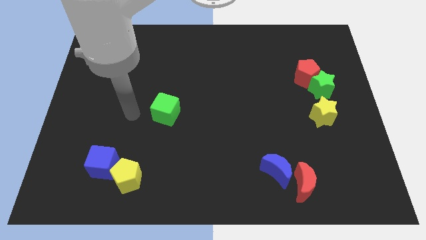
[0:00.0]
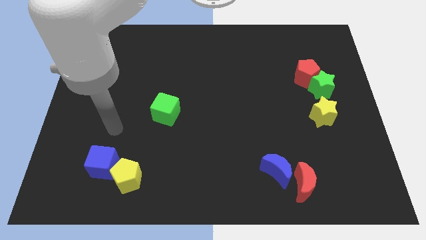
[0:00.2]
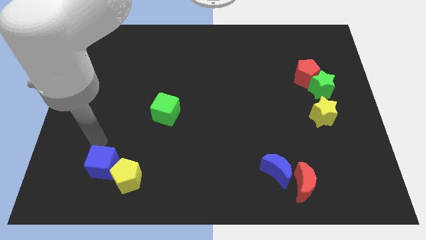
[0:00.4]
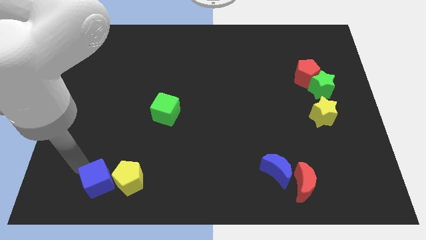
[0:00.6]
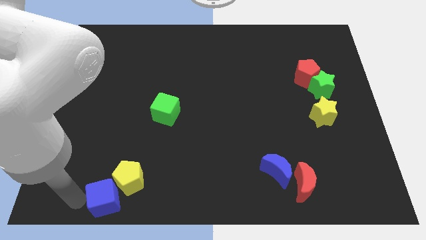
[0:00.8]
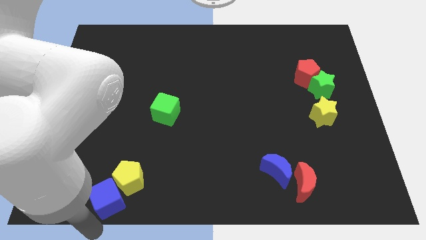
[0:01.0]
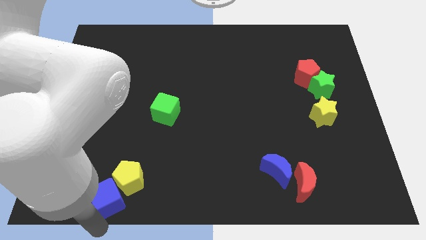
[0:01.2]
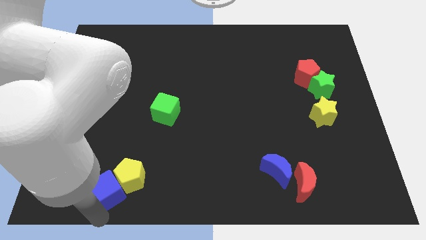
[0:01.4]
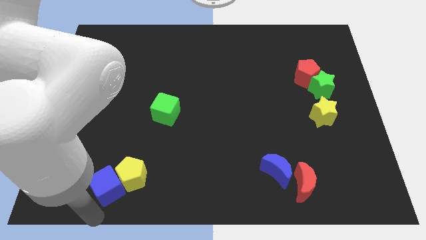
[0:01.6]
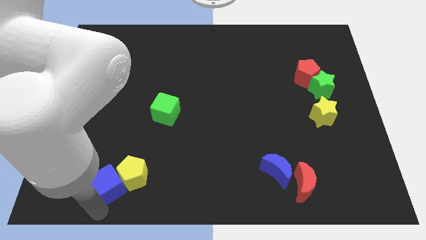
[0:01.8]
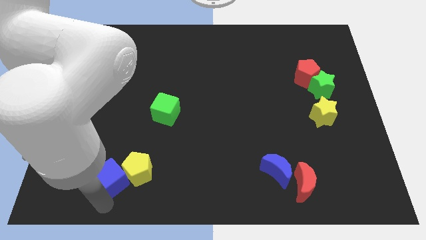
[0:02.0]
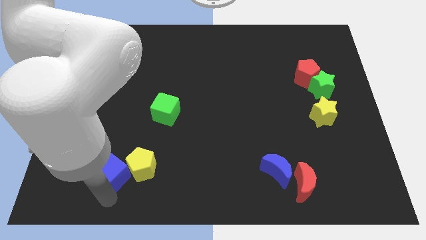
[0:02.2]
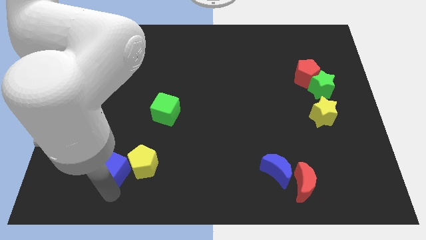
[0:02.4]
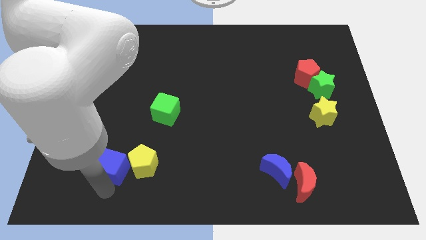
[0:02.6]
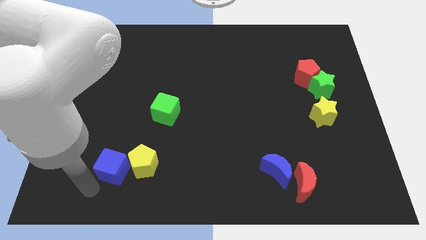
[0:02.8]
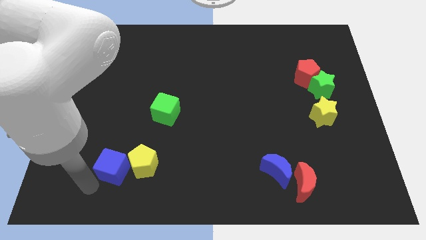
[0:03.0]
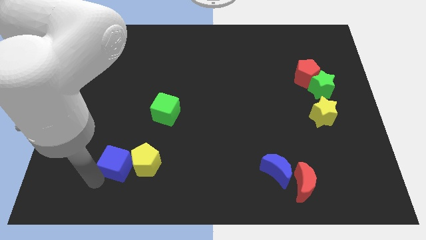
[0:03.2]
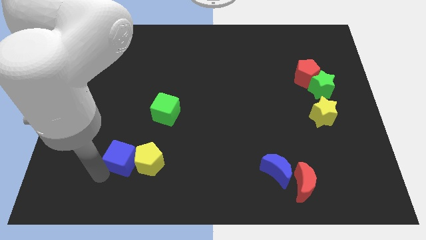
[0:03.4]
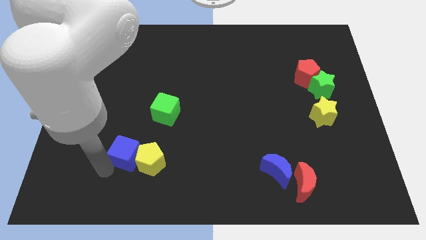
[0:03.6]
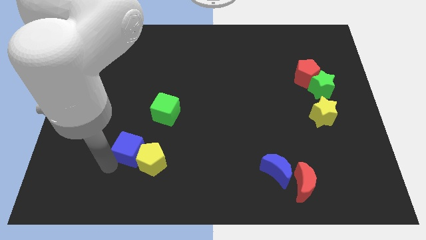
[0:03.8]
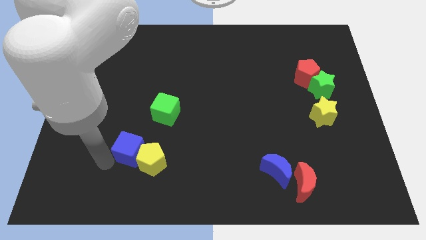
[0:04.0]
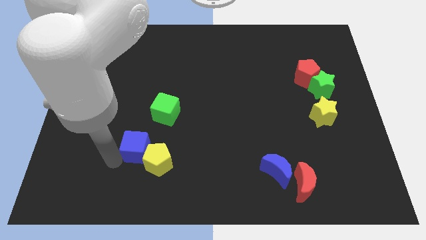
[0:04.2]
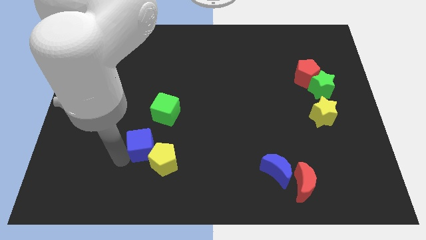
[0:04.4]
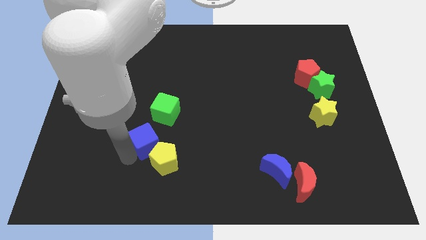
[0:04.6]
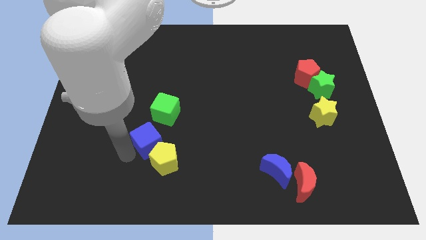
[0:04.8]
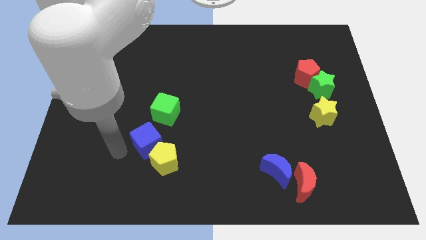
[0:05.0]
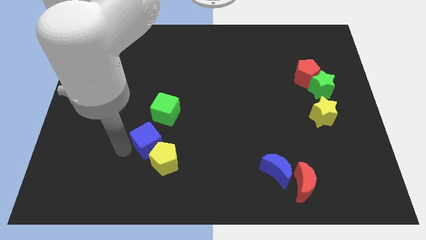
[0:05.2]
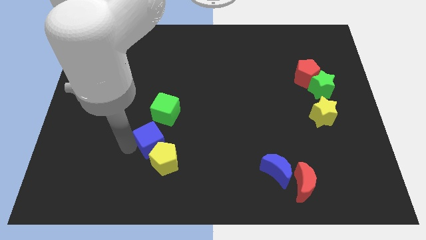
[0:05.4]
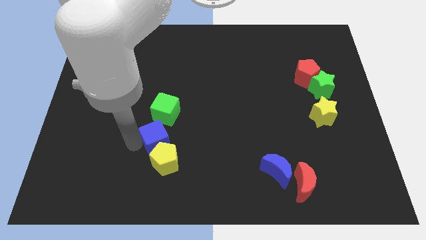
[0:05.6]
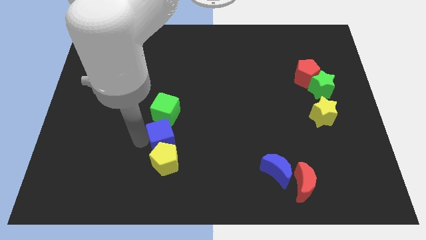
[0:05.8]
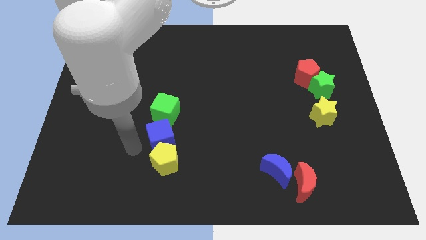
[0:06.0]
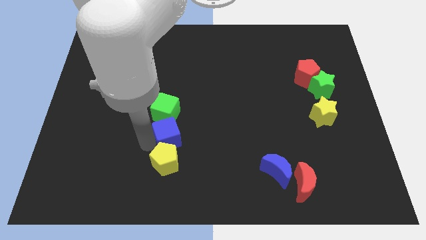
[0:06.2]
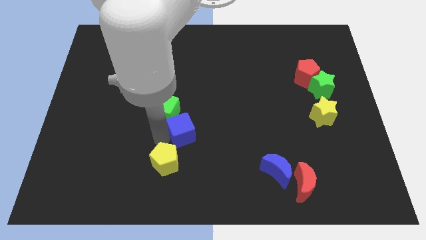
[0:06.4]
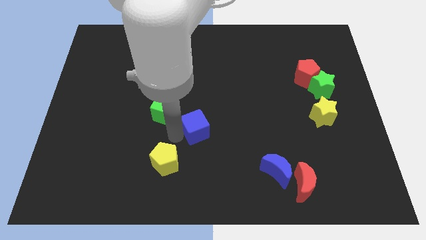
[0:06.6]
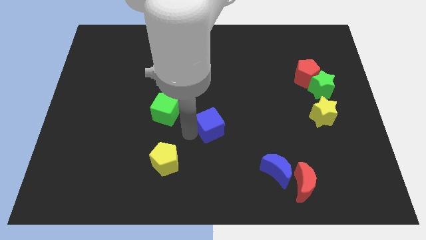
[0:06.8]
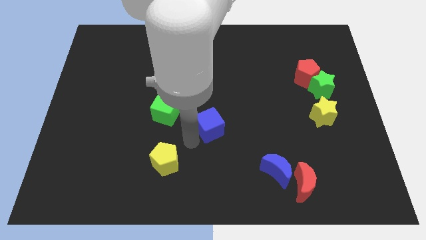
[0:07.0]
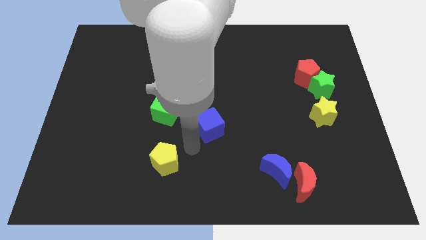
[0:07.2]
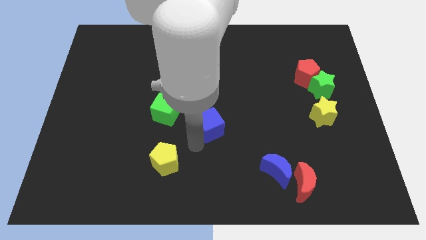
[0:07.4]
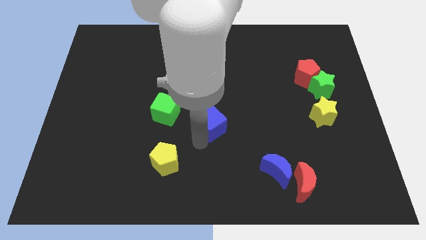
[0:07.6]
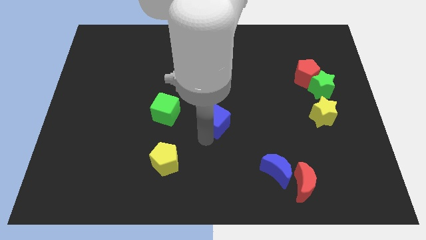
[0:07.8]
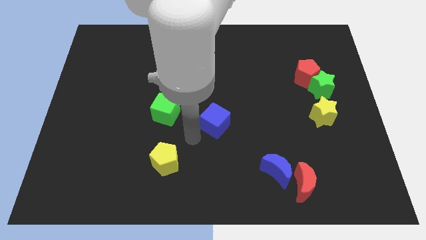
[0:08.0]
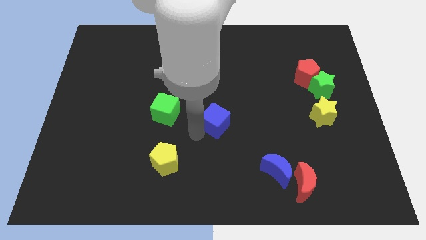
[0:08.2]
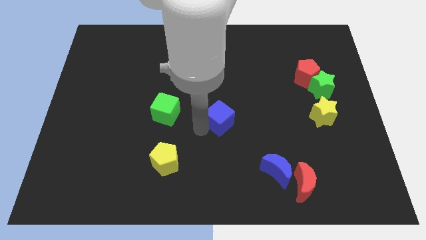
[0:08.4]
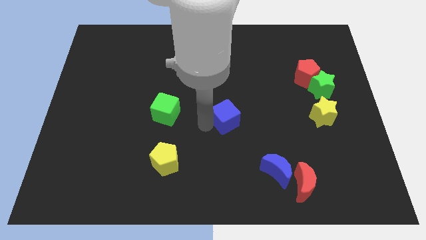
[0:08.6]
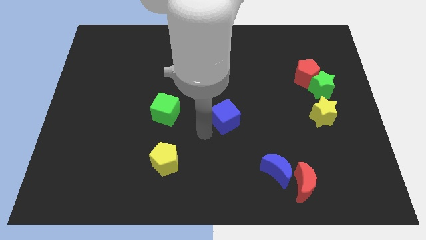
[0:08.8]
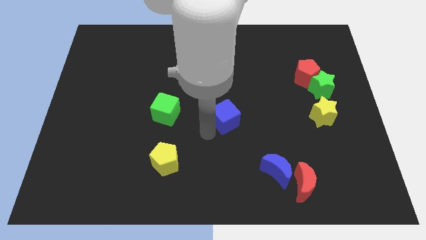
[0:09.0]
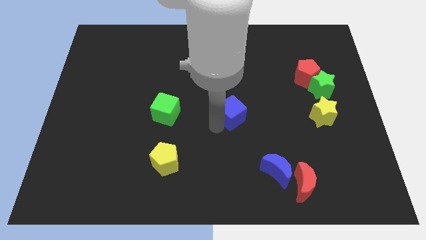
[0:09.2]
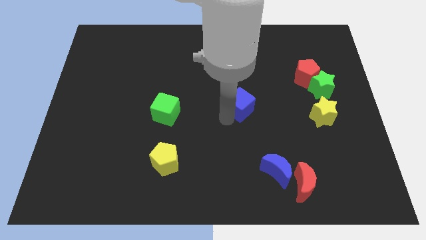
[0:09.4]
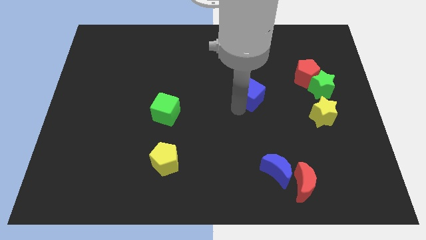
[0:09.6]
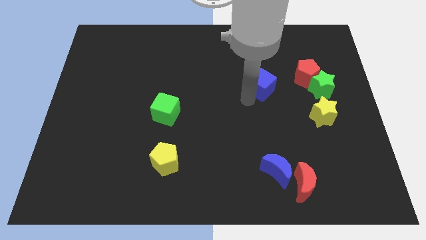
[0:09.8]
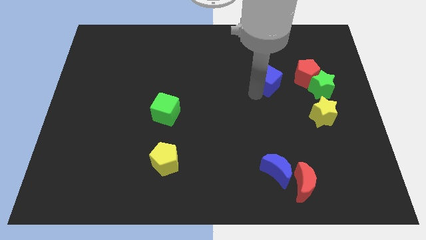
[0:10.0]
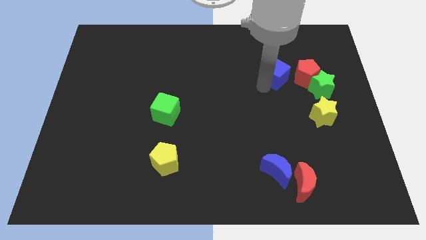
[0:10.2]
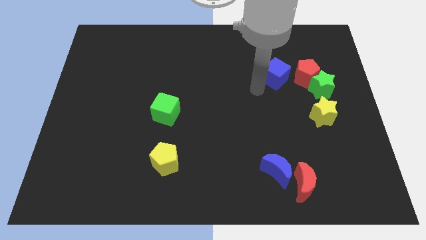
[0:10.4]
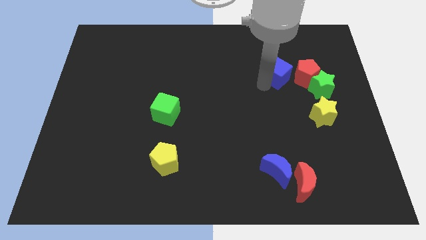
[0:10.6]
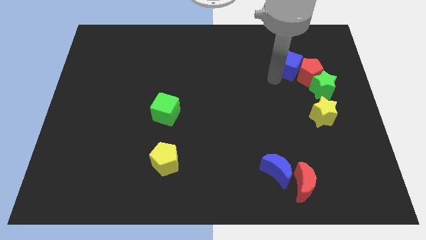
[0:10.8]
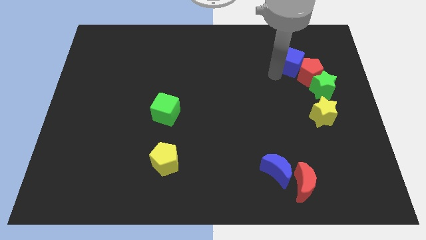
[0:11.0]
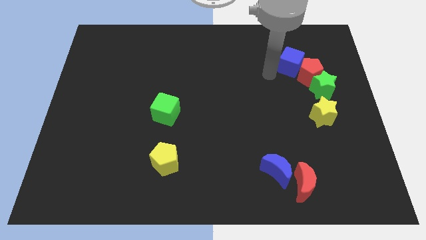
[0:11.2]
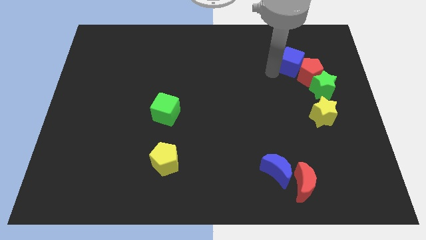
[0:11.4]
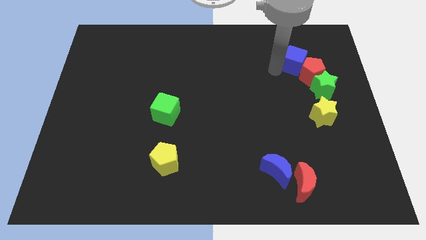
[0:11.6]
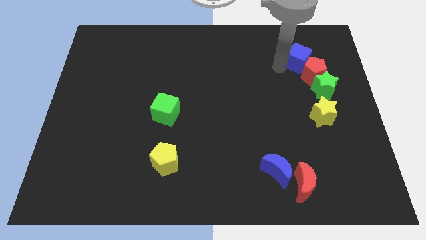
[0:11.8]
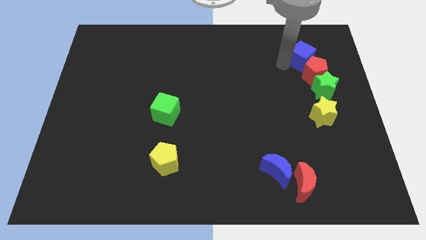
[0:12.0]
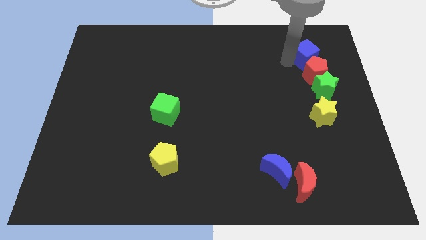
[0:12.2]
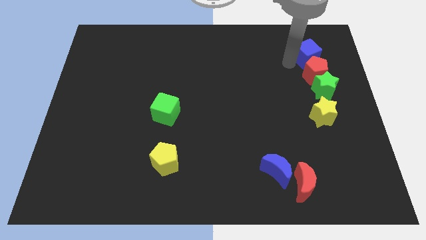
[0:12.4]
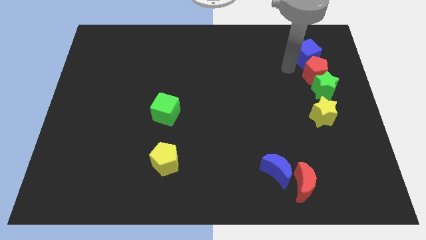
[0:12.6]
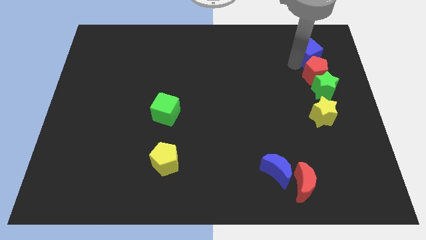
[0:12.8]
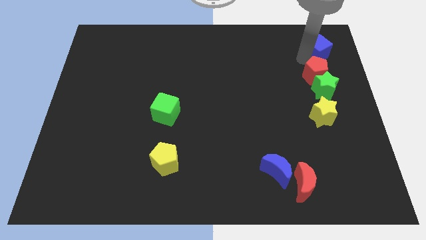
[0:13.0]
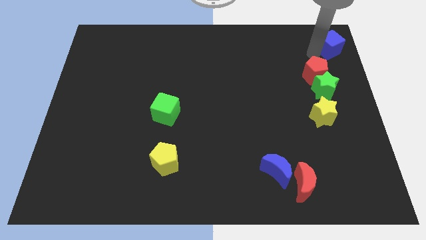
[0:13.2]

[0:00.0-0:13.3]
put the blue cube to the top right
